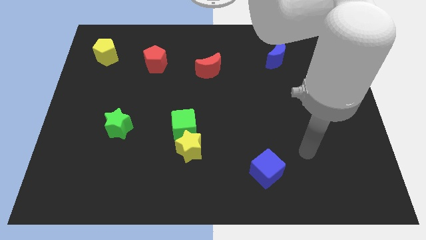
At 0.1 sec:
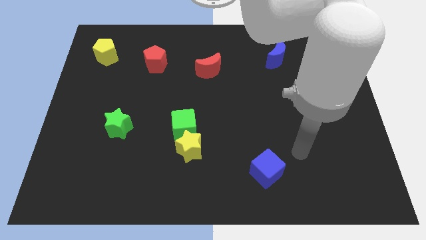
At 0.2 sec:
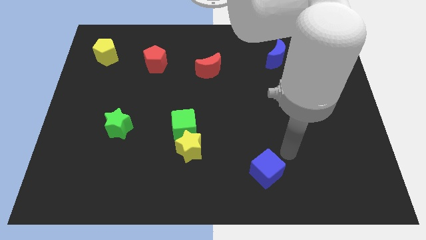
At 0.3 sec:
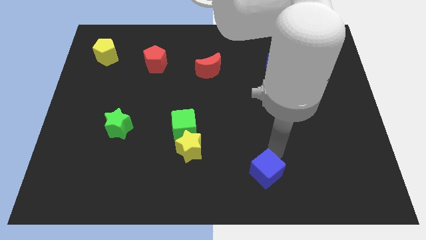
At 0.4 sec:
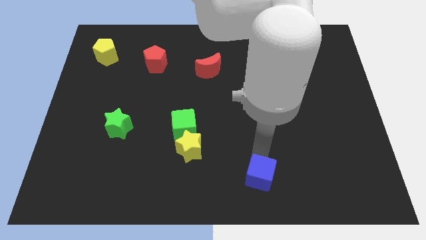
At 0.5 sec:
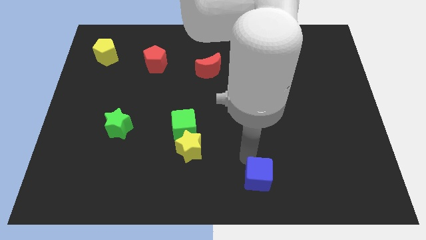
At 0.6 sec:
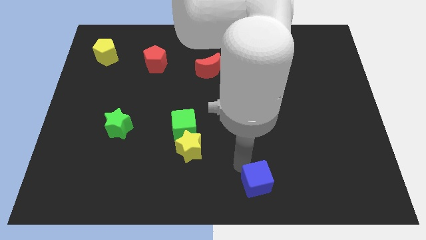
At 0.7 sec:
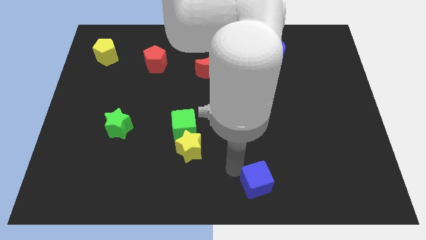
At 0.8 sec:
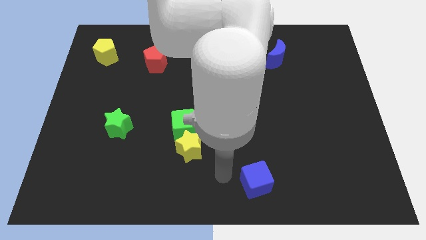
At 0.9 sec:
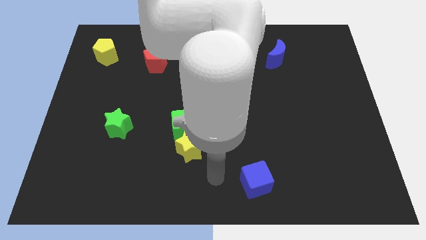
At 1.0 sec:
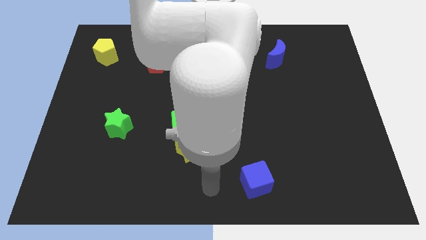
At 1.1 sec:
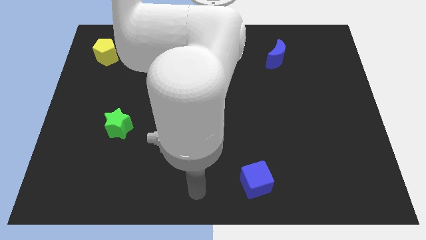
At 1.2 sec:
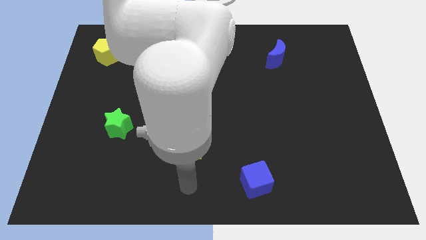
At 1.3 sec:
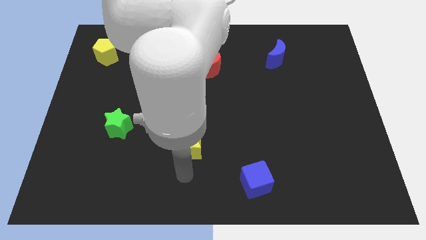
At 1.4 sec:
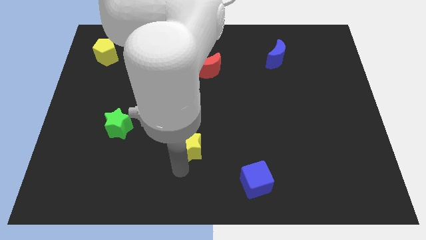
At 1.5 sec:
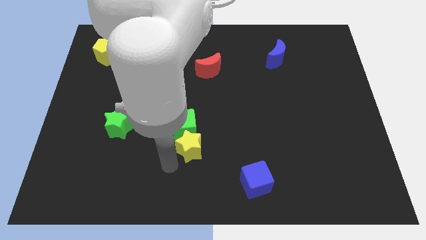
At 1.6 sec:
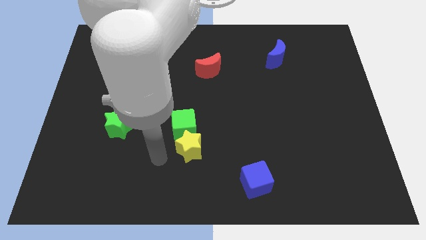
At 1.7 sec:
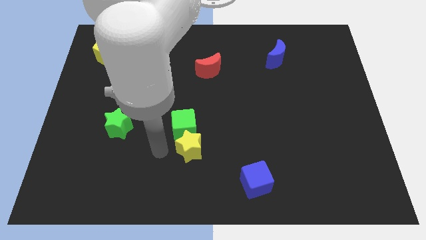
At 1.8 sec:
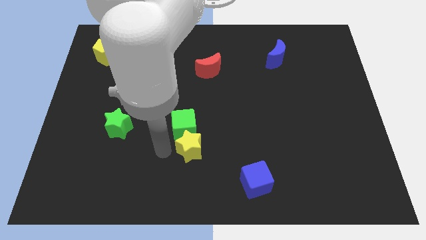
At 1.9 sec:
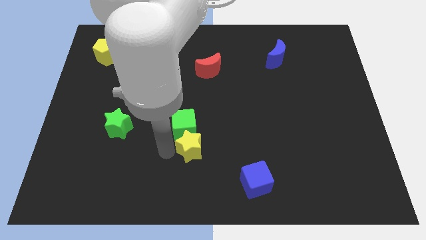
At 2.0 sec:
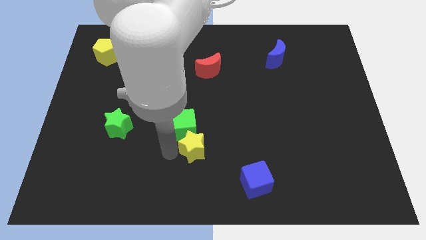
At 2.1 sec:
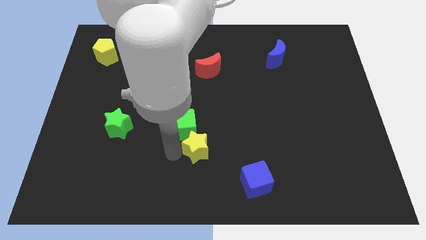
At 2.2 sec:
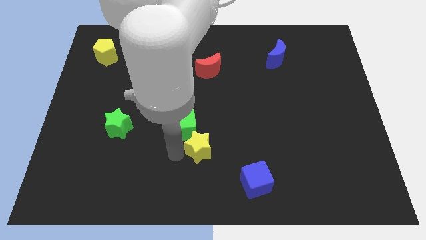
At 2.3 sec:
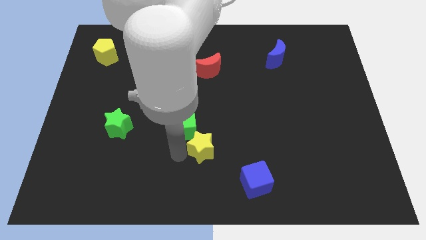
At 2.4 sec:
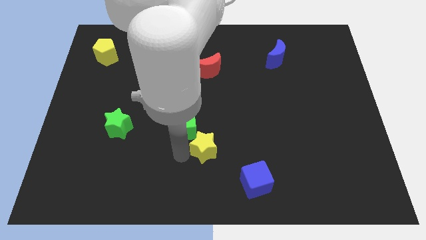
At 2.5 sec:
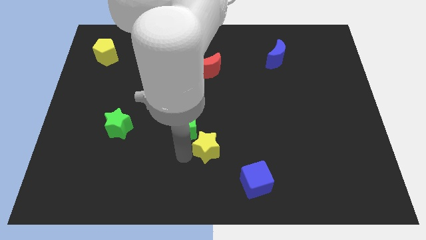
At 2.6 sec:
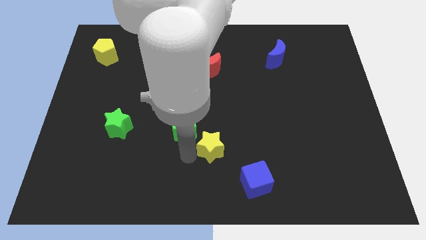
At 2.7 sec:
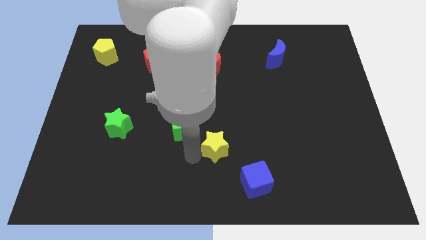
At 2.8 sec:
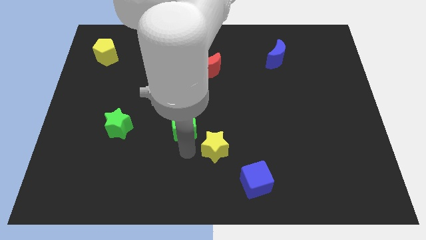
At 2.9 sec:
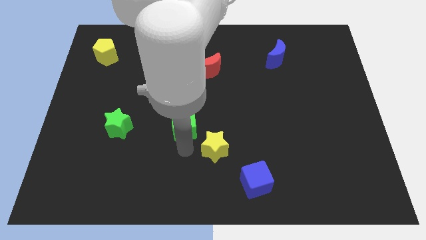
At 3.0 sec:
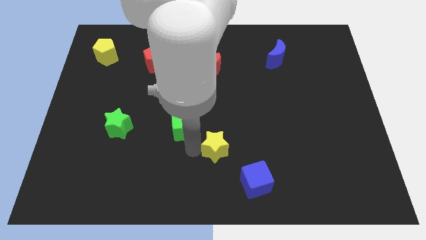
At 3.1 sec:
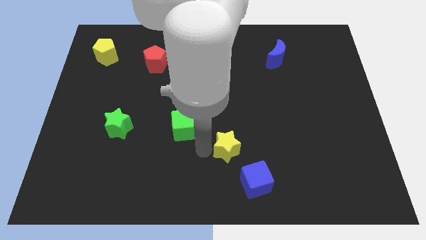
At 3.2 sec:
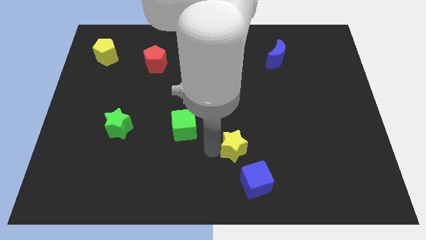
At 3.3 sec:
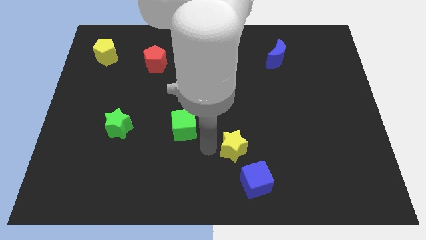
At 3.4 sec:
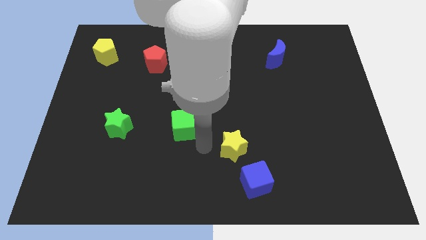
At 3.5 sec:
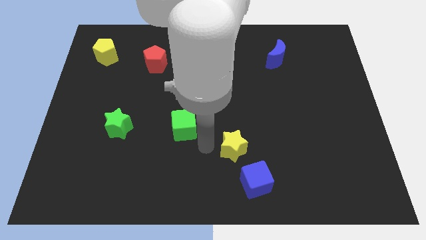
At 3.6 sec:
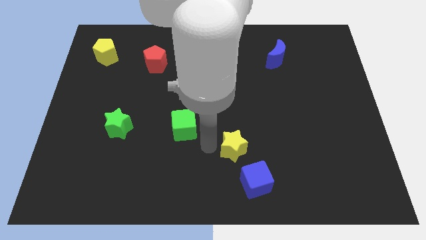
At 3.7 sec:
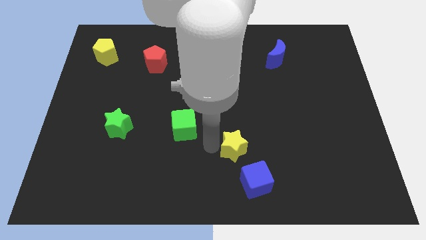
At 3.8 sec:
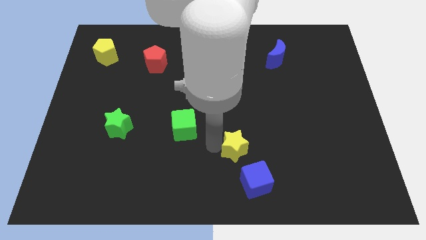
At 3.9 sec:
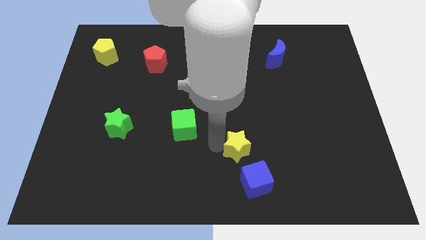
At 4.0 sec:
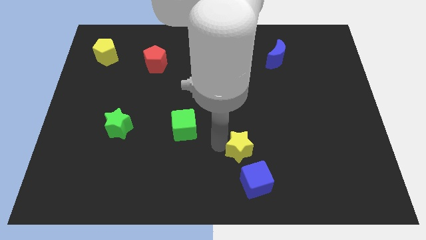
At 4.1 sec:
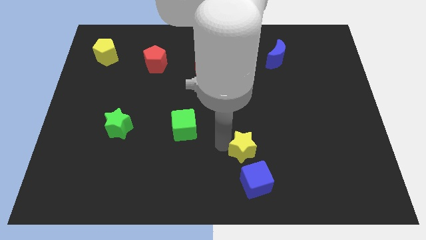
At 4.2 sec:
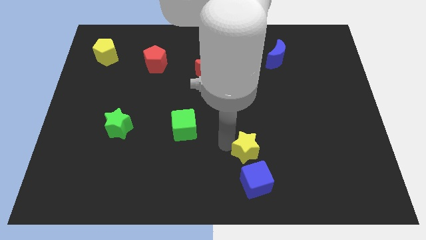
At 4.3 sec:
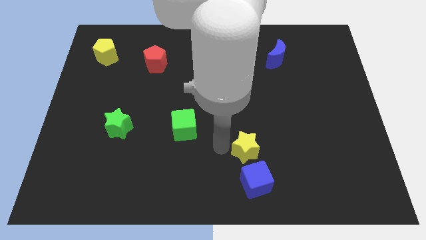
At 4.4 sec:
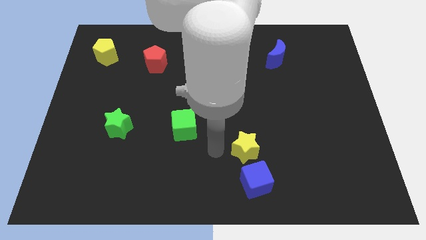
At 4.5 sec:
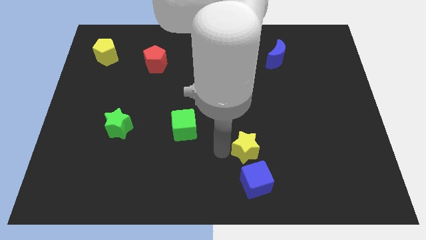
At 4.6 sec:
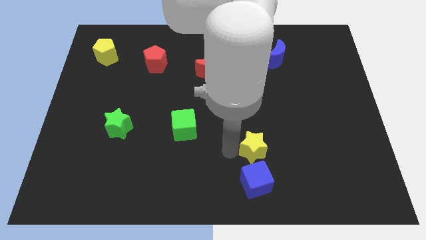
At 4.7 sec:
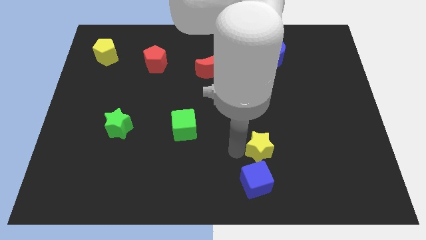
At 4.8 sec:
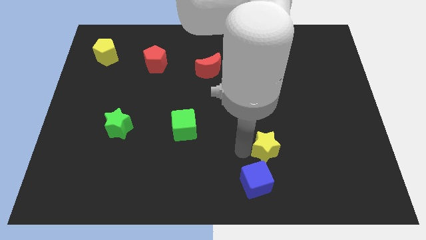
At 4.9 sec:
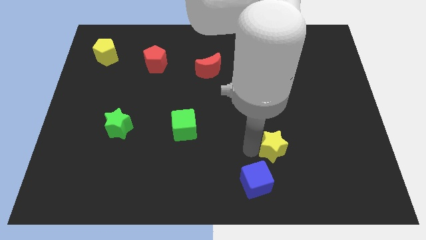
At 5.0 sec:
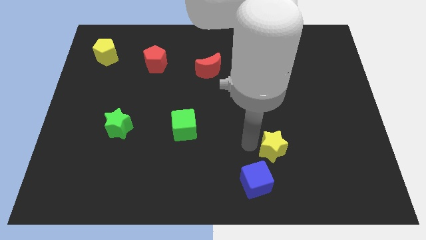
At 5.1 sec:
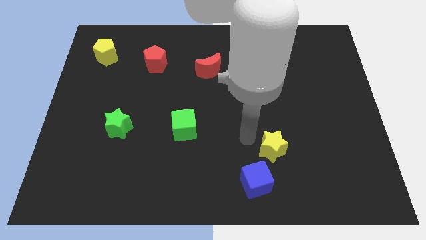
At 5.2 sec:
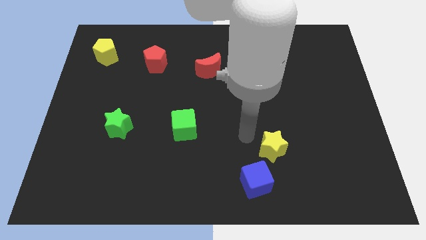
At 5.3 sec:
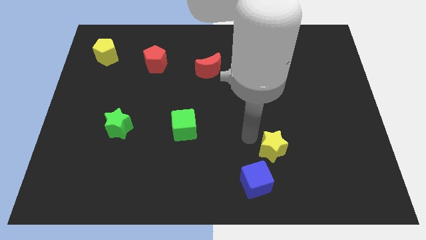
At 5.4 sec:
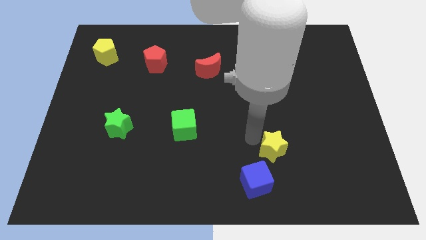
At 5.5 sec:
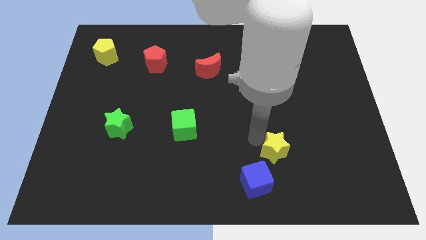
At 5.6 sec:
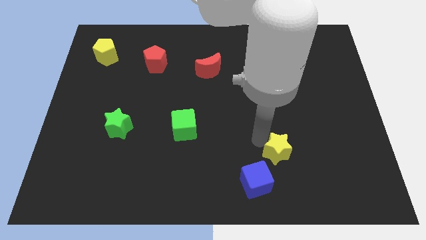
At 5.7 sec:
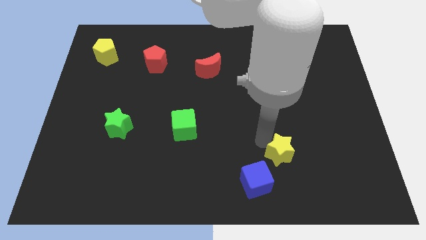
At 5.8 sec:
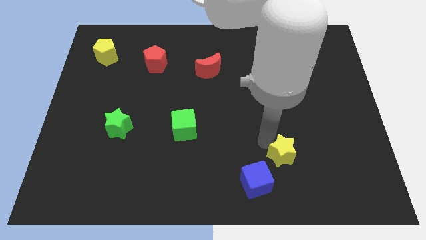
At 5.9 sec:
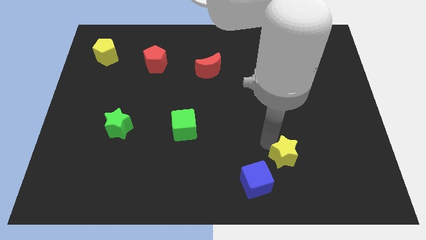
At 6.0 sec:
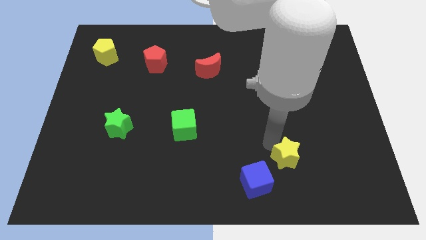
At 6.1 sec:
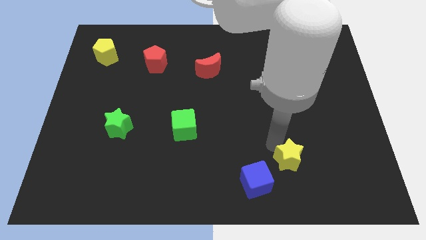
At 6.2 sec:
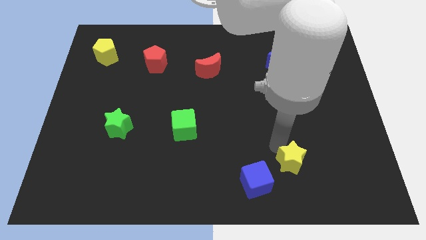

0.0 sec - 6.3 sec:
put the yellow star right of the blue cube
